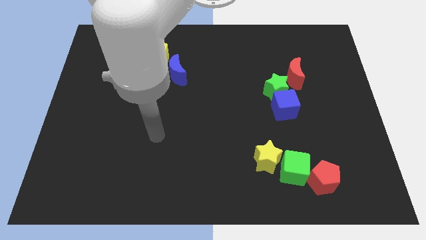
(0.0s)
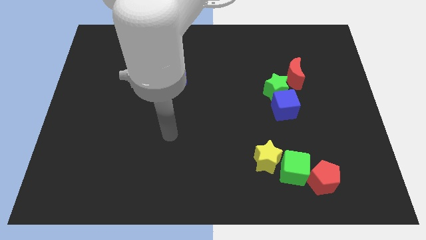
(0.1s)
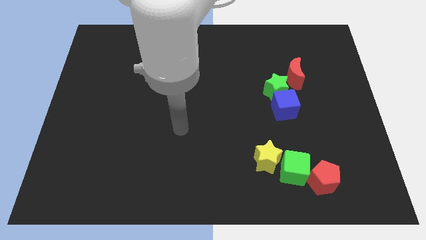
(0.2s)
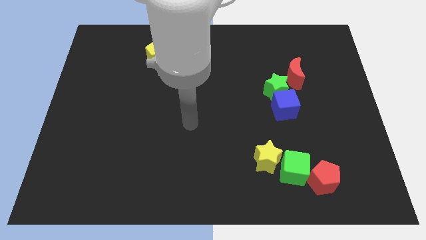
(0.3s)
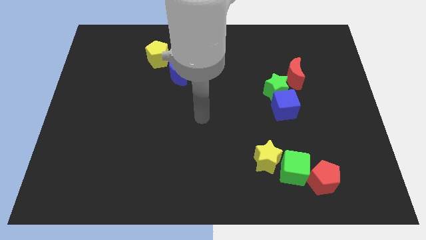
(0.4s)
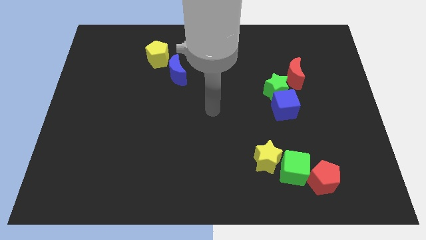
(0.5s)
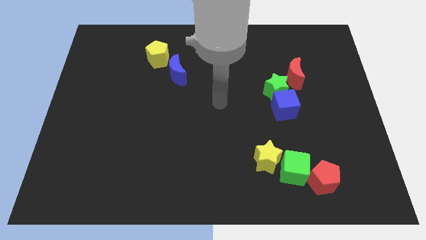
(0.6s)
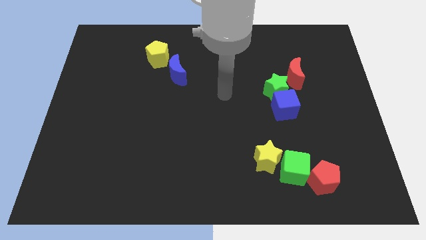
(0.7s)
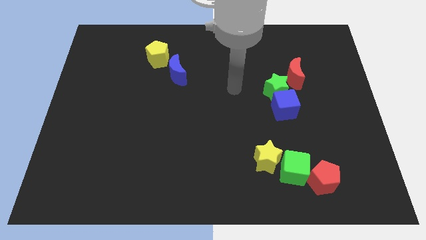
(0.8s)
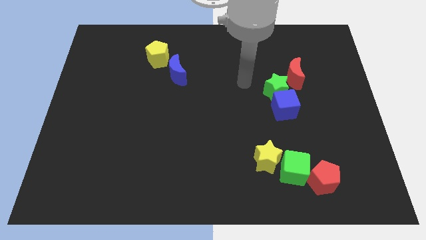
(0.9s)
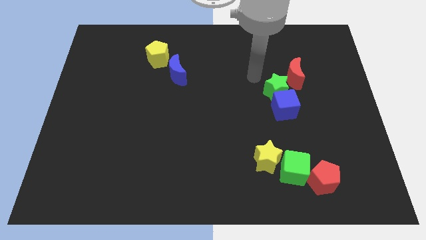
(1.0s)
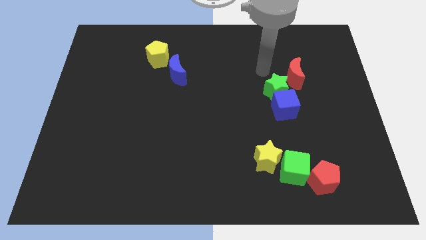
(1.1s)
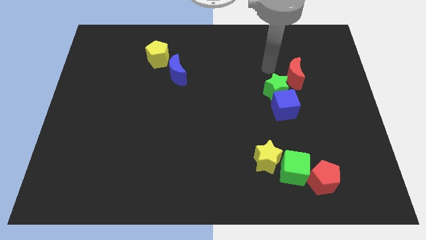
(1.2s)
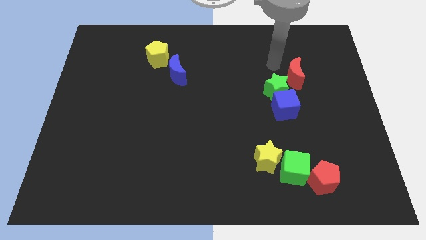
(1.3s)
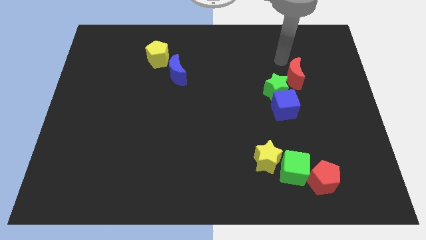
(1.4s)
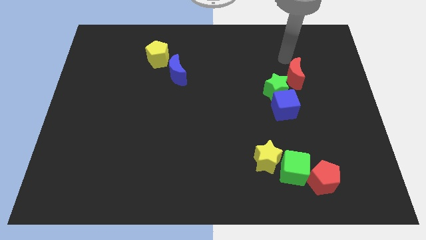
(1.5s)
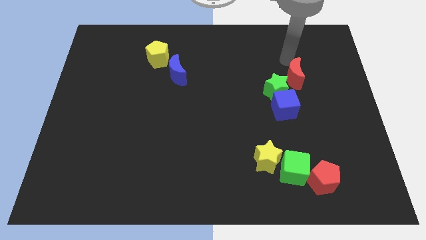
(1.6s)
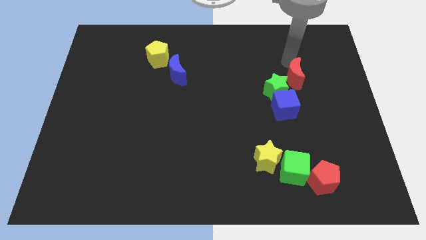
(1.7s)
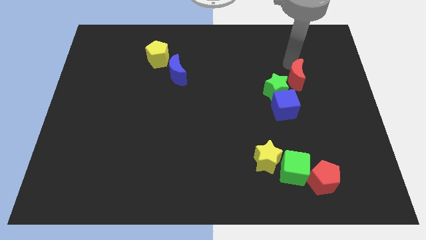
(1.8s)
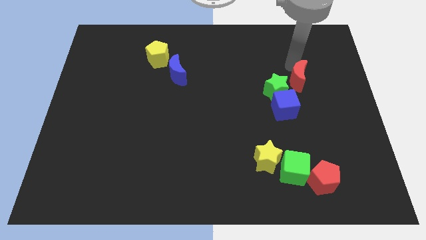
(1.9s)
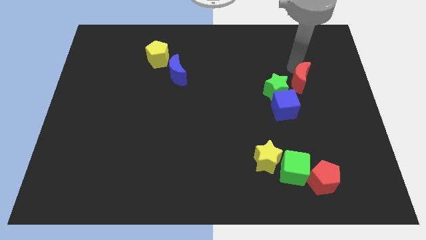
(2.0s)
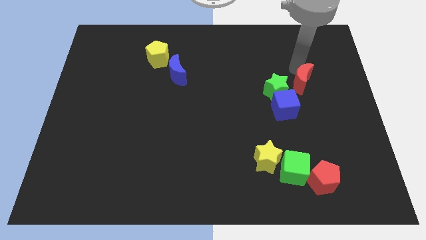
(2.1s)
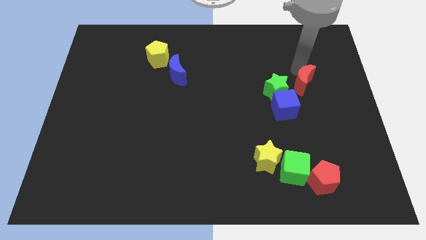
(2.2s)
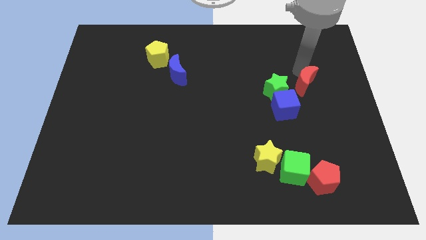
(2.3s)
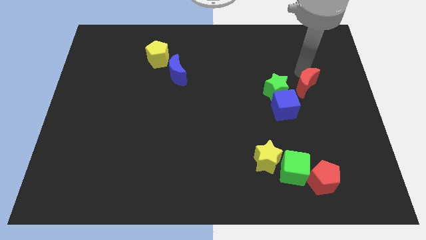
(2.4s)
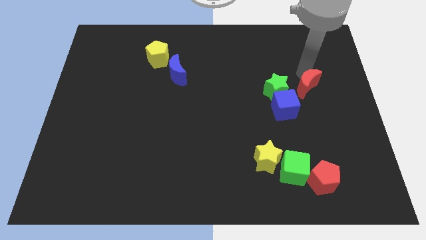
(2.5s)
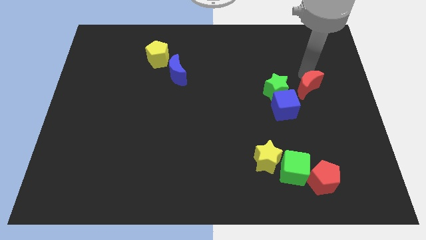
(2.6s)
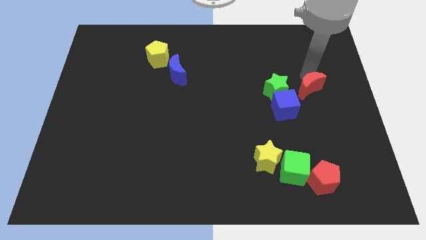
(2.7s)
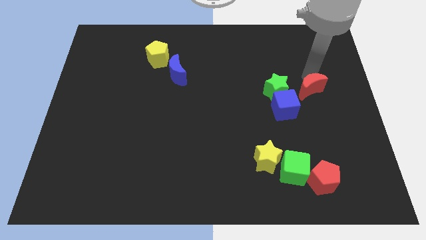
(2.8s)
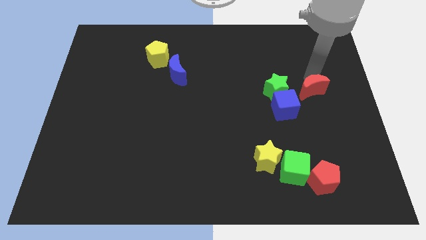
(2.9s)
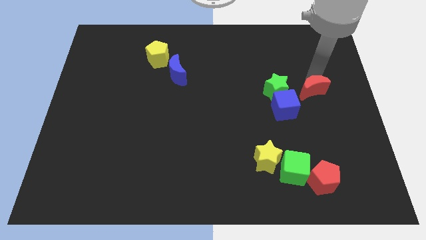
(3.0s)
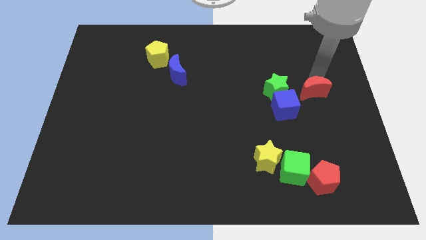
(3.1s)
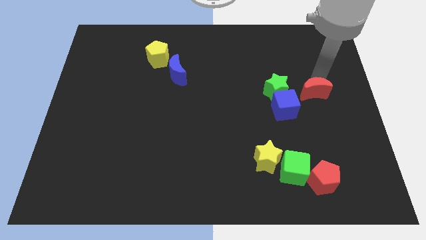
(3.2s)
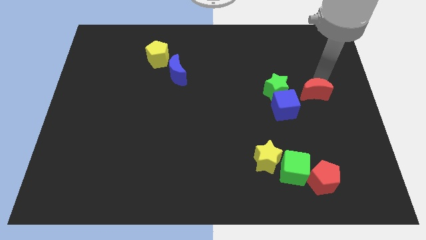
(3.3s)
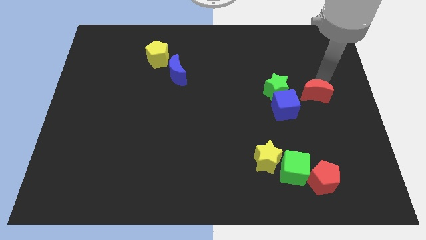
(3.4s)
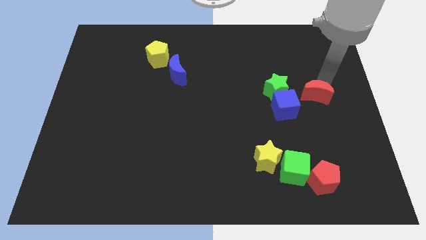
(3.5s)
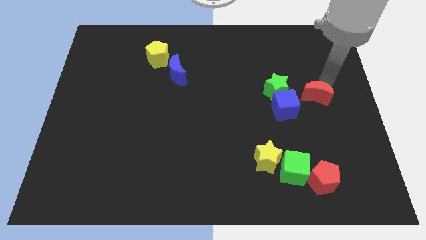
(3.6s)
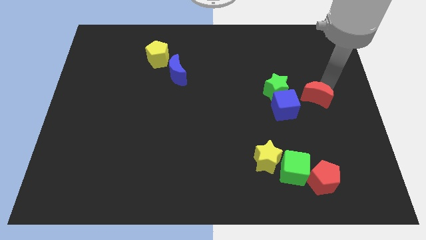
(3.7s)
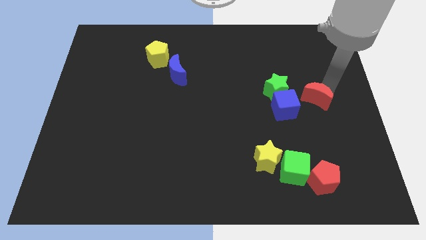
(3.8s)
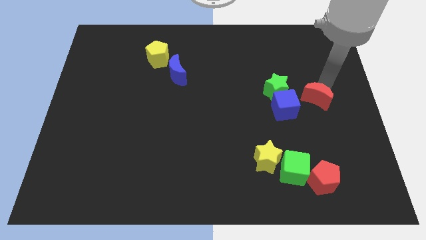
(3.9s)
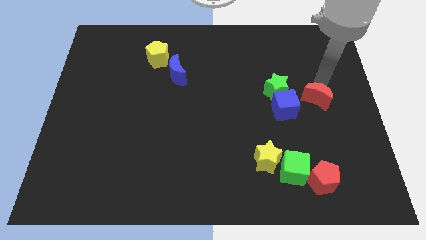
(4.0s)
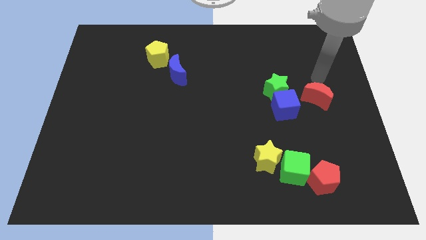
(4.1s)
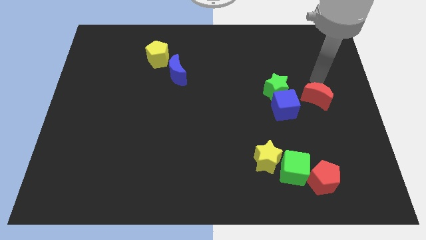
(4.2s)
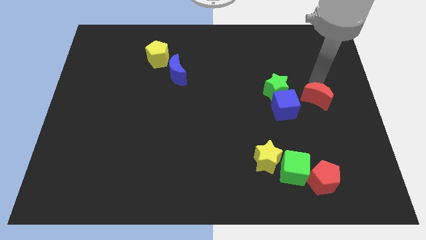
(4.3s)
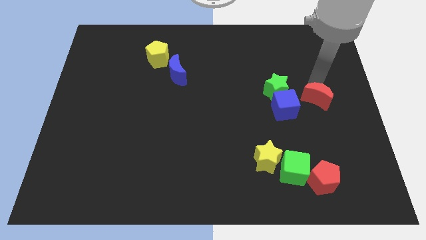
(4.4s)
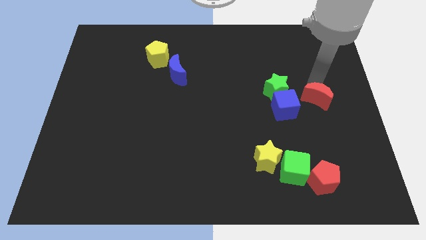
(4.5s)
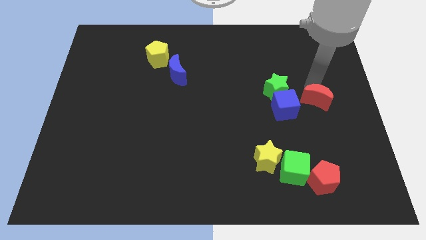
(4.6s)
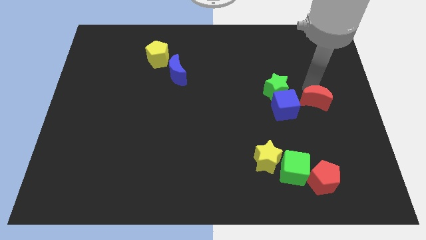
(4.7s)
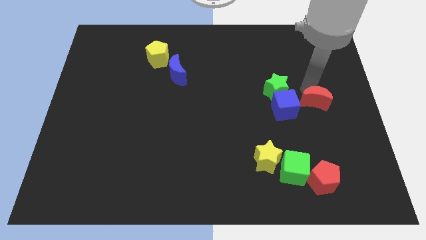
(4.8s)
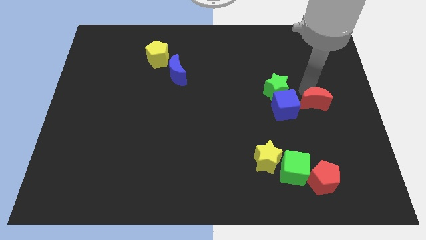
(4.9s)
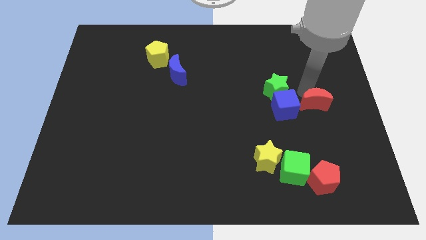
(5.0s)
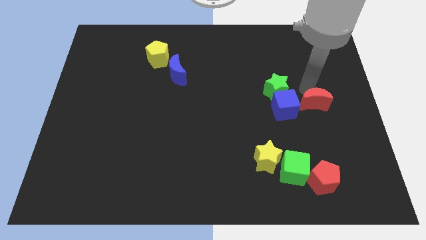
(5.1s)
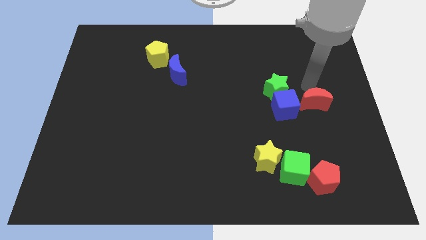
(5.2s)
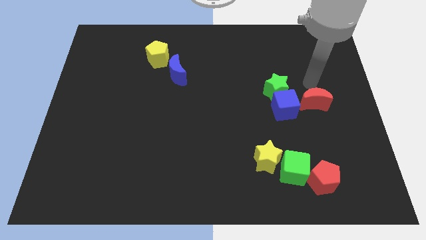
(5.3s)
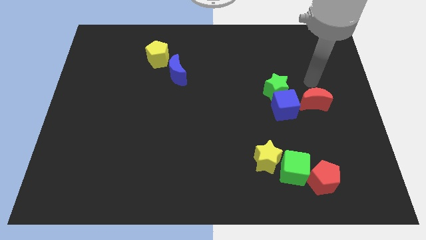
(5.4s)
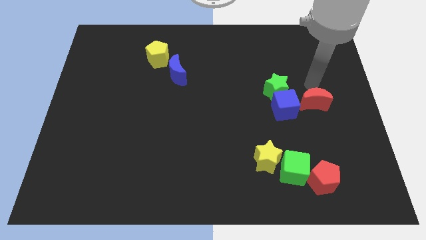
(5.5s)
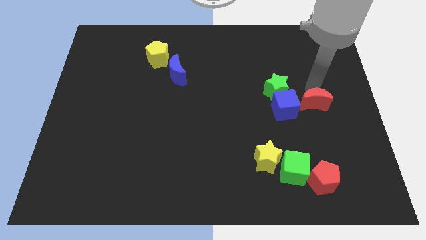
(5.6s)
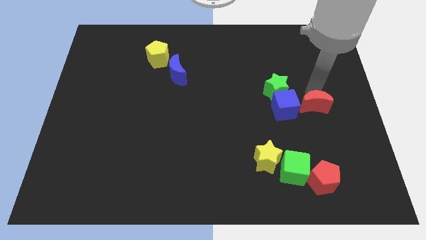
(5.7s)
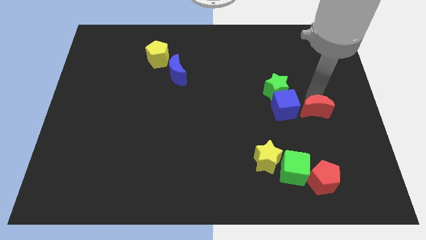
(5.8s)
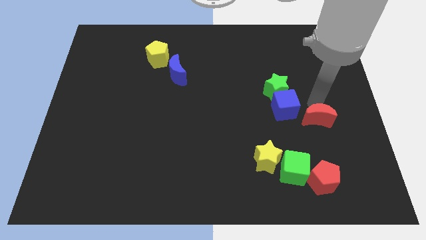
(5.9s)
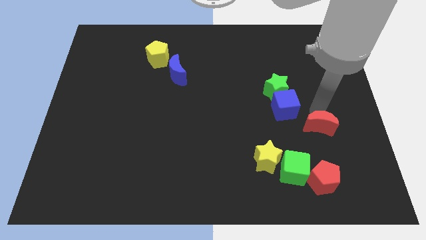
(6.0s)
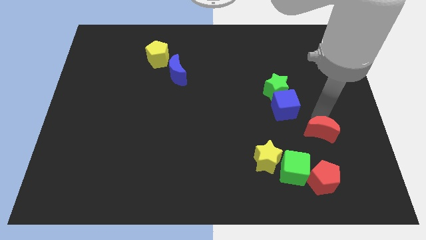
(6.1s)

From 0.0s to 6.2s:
put the red moon to the top right side of the green cube
